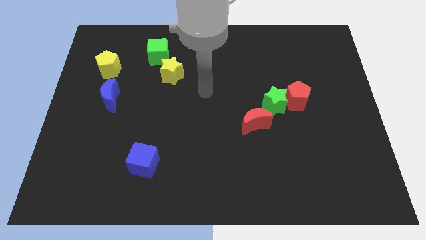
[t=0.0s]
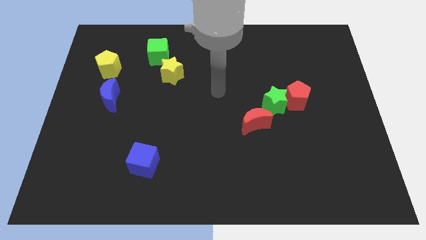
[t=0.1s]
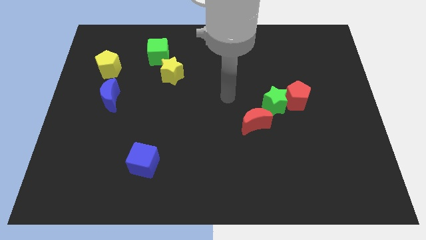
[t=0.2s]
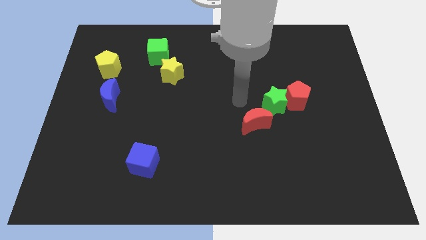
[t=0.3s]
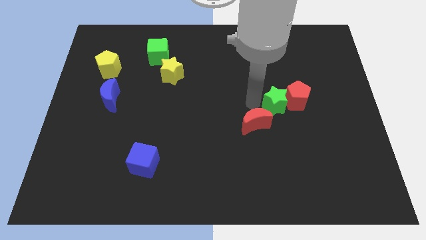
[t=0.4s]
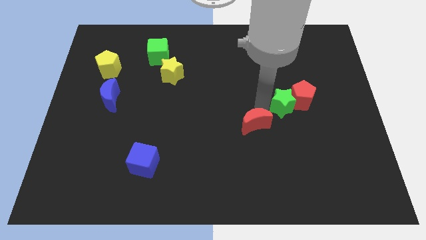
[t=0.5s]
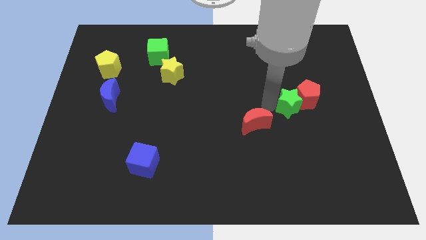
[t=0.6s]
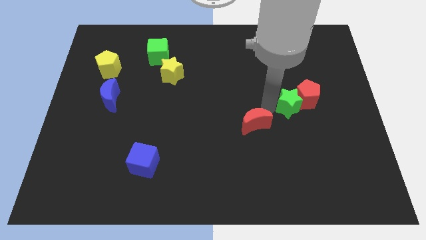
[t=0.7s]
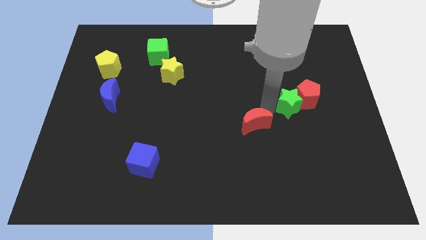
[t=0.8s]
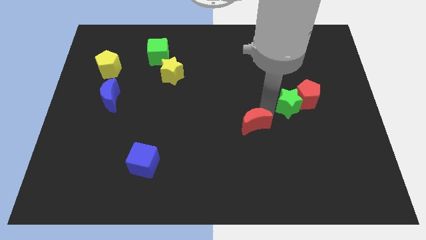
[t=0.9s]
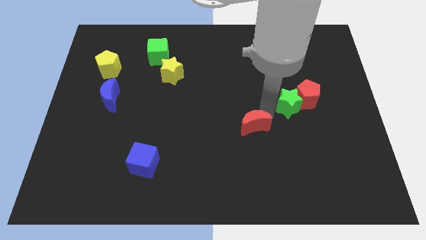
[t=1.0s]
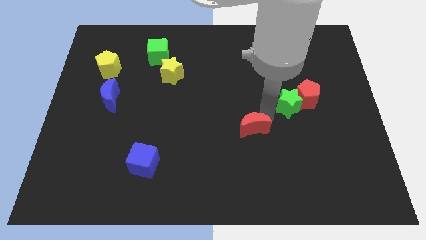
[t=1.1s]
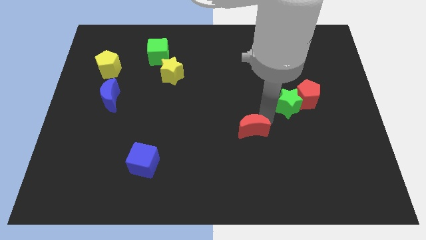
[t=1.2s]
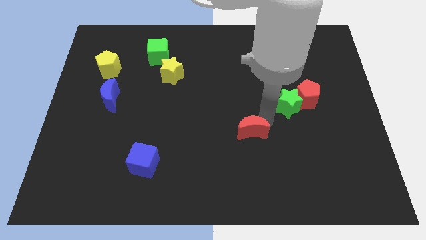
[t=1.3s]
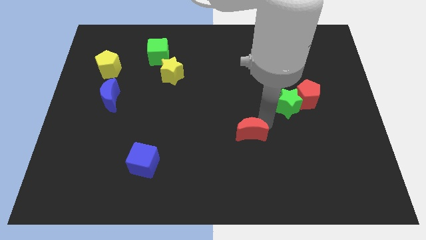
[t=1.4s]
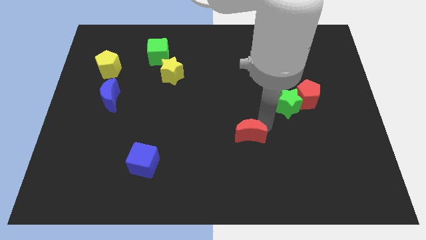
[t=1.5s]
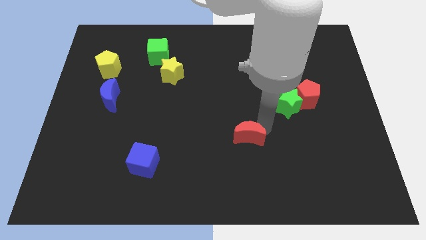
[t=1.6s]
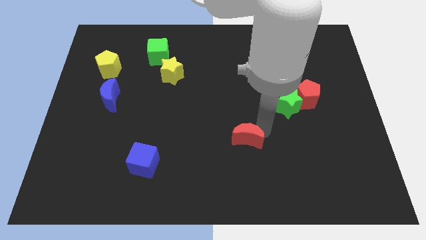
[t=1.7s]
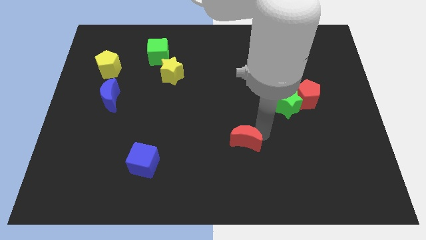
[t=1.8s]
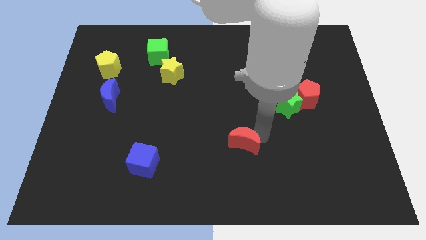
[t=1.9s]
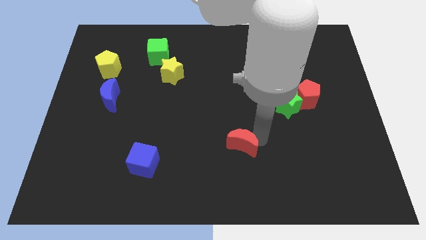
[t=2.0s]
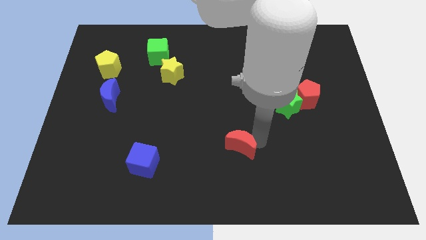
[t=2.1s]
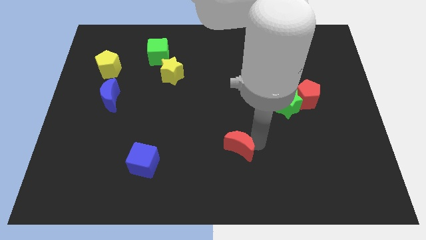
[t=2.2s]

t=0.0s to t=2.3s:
slightly move the red moon diagonally down and left

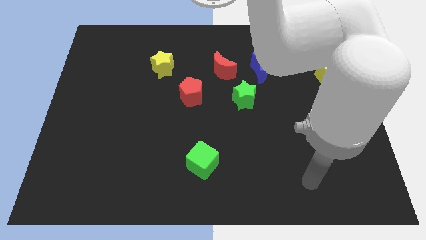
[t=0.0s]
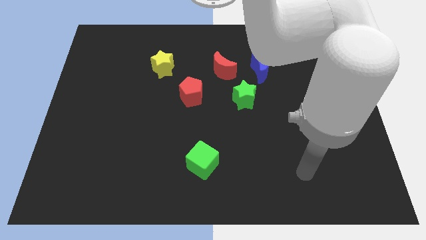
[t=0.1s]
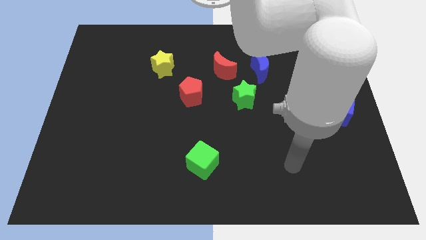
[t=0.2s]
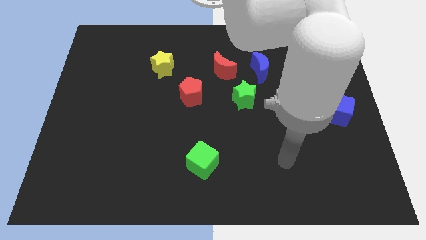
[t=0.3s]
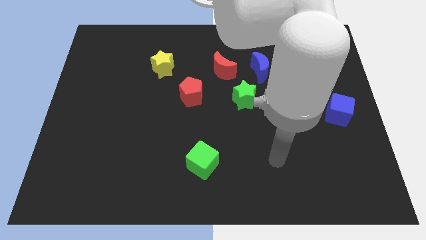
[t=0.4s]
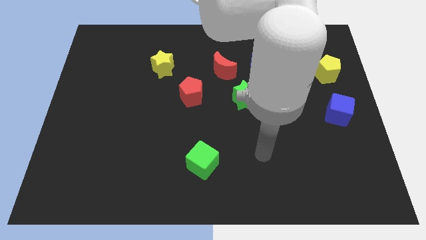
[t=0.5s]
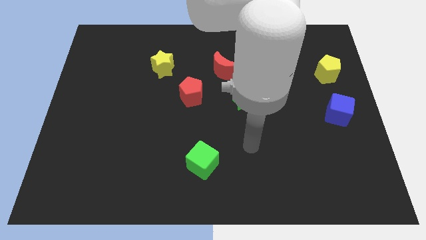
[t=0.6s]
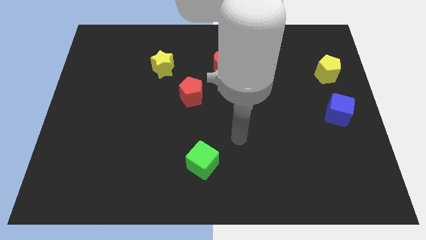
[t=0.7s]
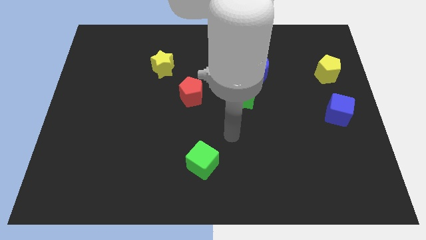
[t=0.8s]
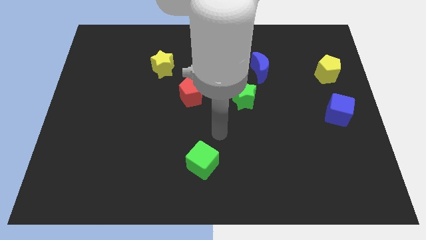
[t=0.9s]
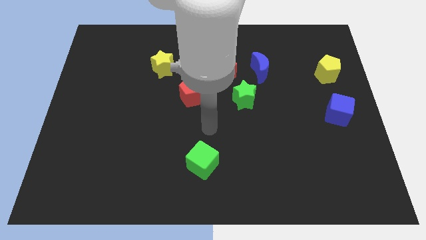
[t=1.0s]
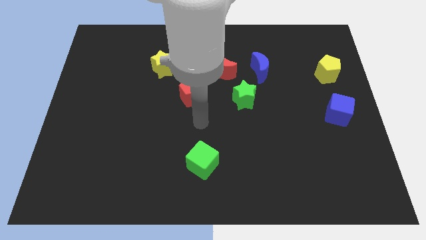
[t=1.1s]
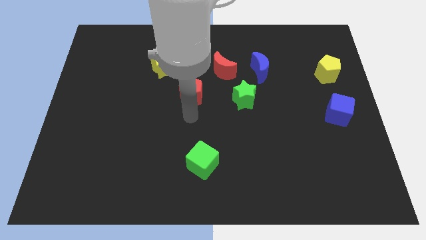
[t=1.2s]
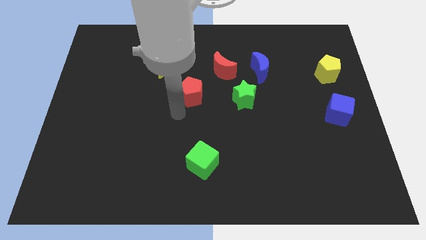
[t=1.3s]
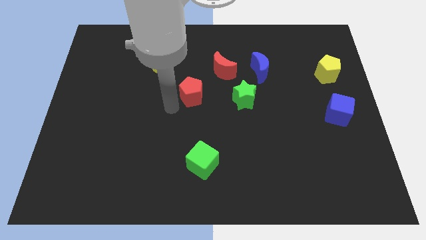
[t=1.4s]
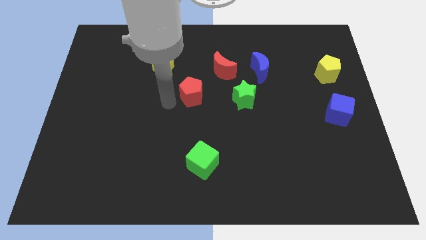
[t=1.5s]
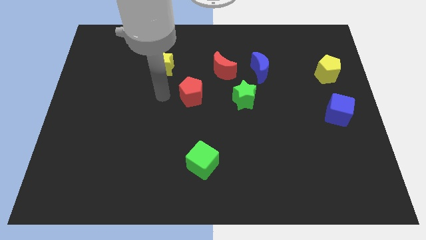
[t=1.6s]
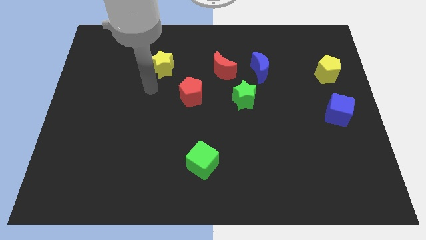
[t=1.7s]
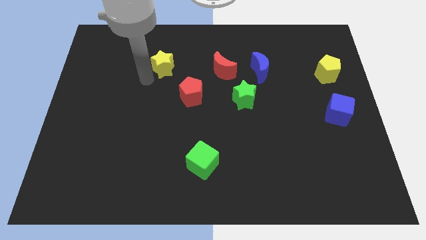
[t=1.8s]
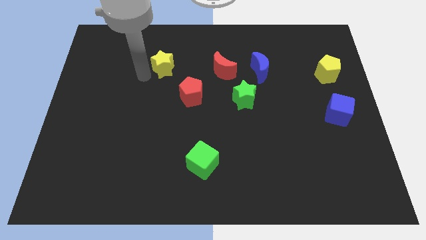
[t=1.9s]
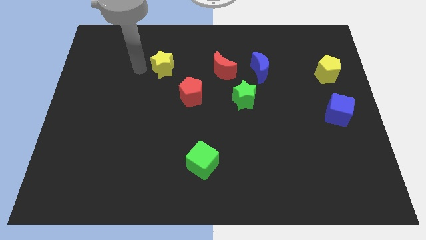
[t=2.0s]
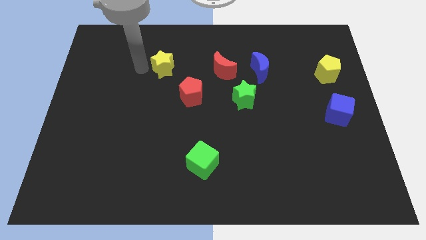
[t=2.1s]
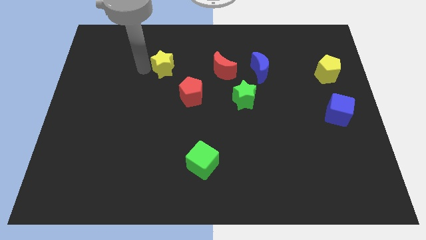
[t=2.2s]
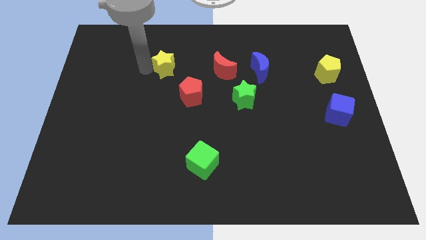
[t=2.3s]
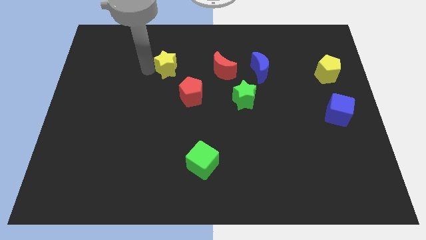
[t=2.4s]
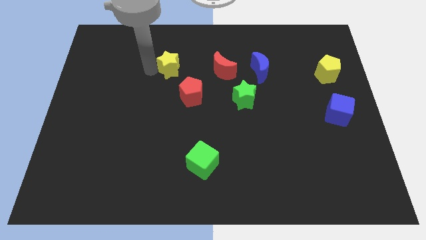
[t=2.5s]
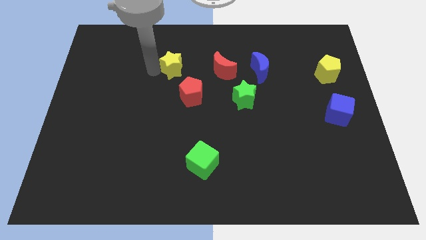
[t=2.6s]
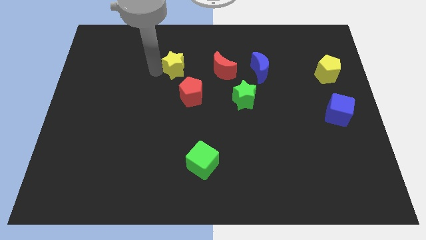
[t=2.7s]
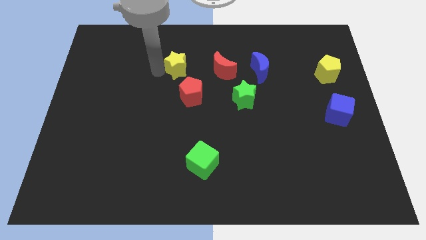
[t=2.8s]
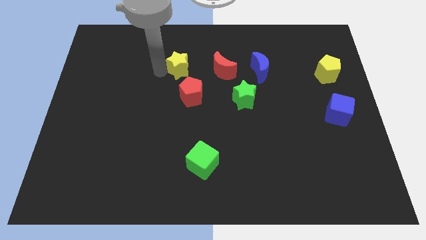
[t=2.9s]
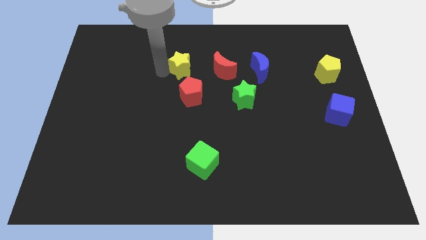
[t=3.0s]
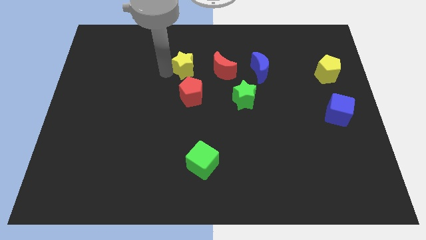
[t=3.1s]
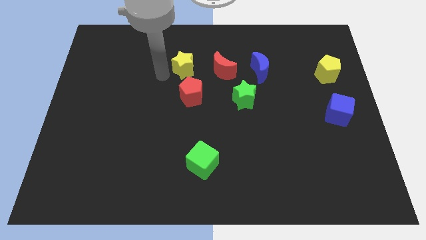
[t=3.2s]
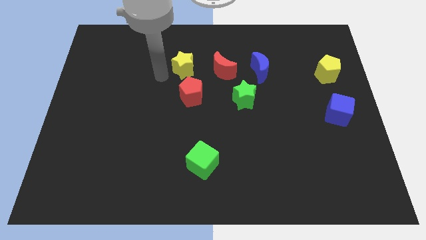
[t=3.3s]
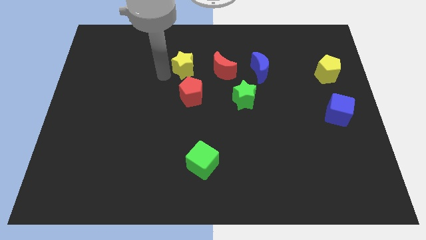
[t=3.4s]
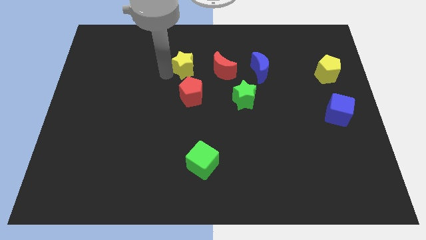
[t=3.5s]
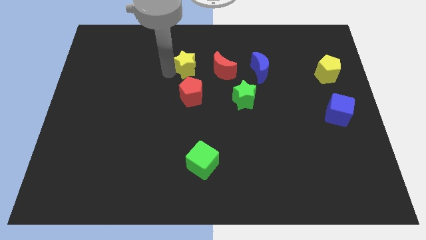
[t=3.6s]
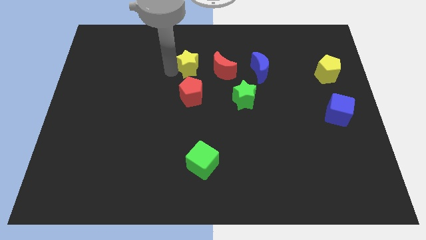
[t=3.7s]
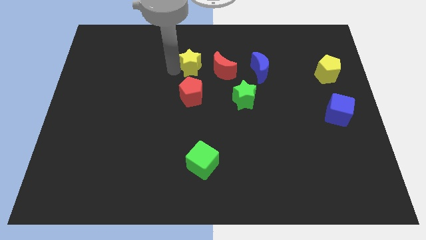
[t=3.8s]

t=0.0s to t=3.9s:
slightly slide the yellow star right

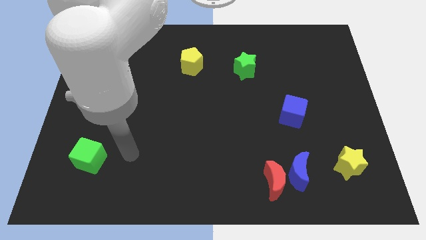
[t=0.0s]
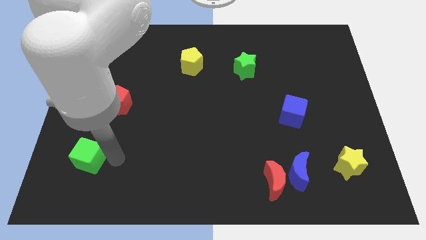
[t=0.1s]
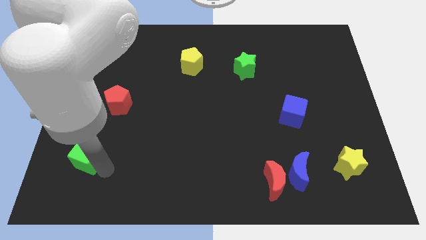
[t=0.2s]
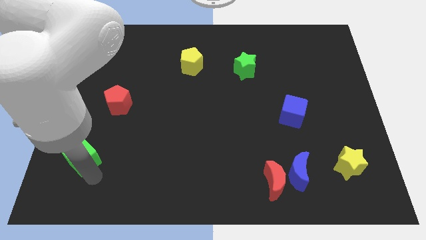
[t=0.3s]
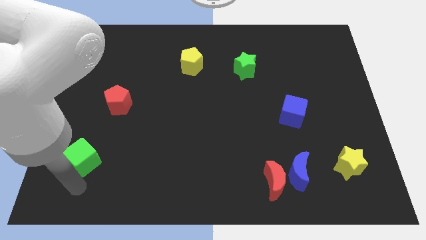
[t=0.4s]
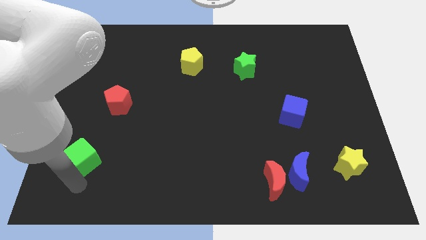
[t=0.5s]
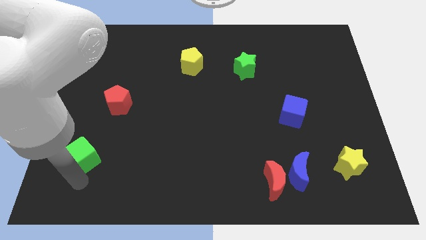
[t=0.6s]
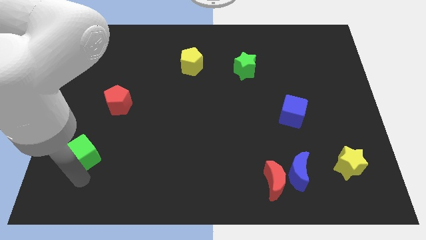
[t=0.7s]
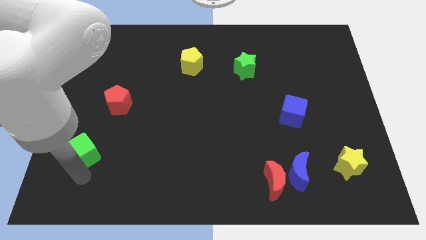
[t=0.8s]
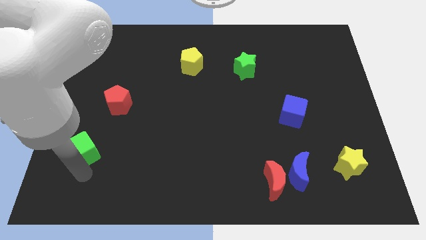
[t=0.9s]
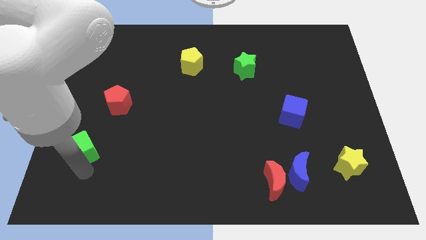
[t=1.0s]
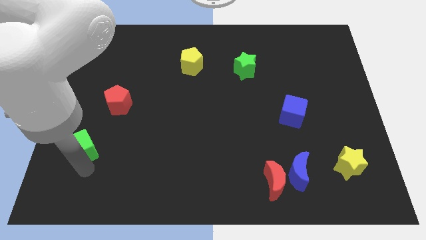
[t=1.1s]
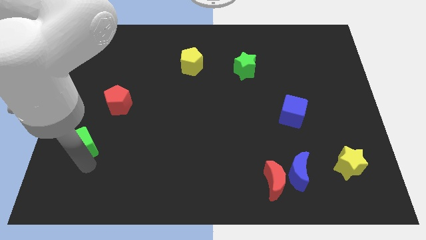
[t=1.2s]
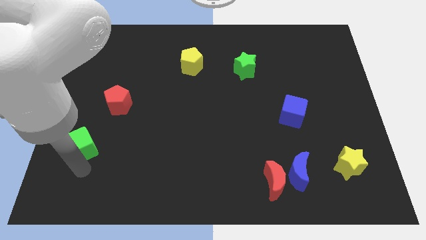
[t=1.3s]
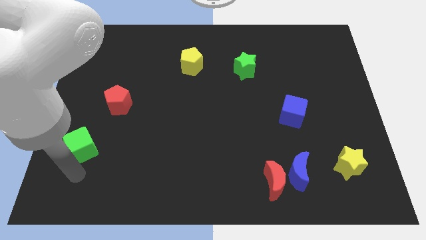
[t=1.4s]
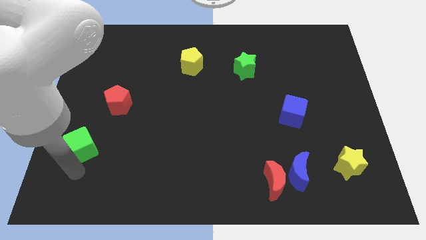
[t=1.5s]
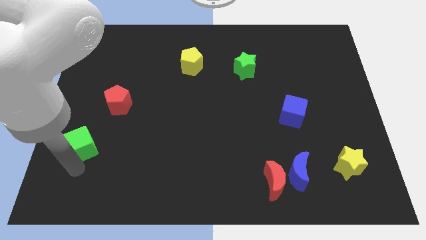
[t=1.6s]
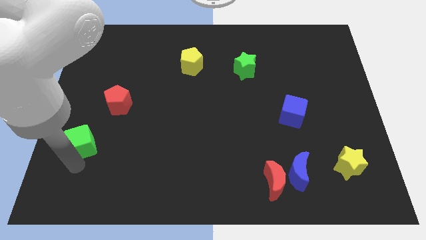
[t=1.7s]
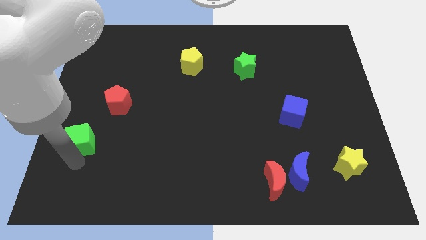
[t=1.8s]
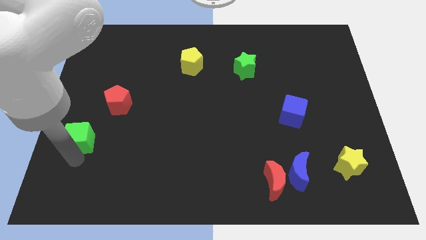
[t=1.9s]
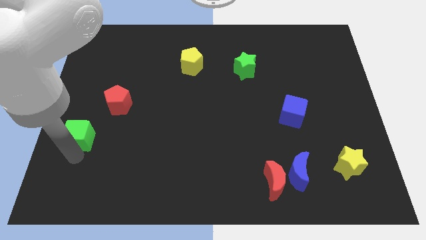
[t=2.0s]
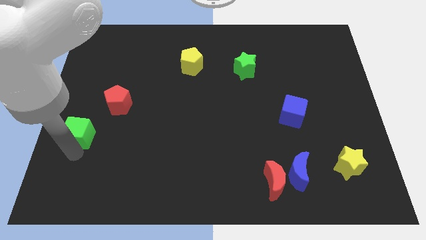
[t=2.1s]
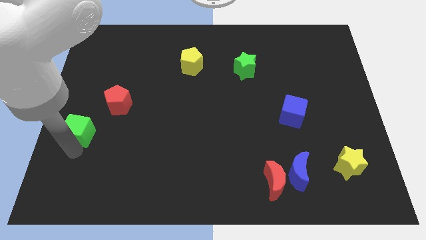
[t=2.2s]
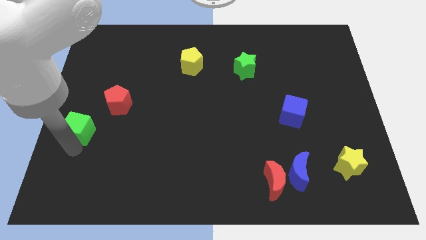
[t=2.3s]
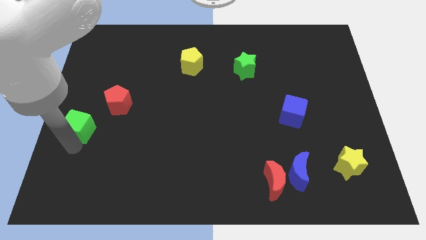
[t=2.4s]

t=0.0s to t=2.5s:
slide the green cube slightly up
